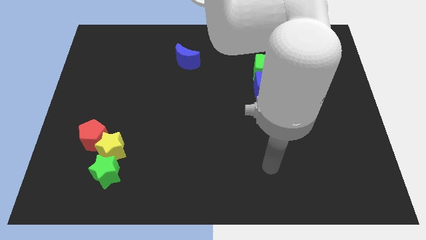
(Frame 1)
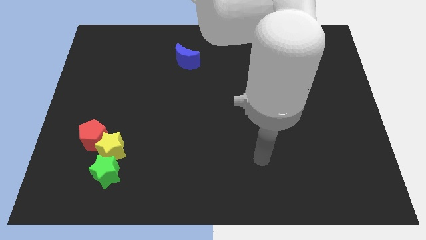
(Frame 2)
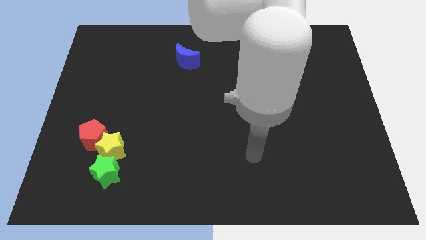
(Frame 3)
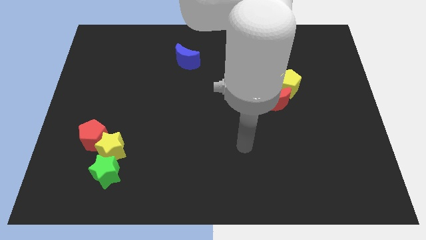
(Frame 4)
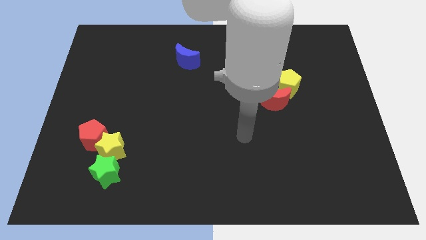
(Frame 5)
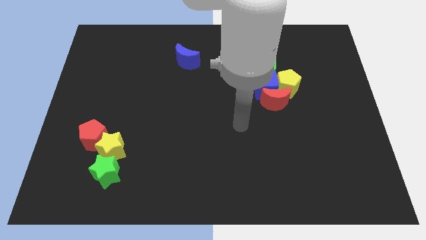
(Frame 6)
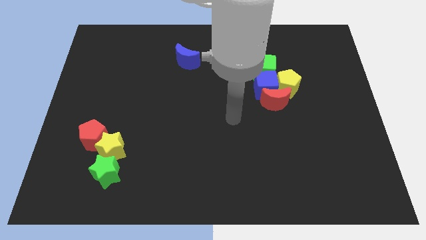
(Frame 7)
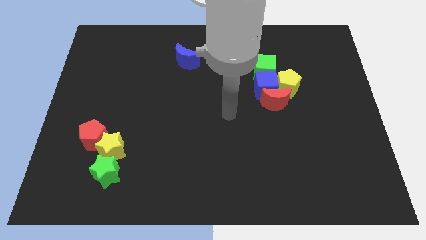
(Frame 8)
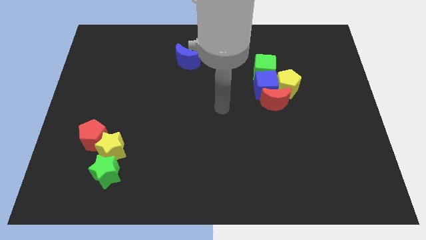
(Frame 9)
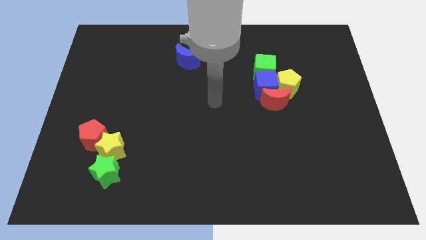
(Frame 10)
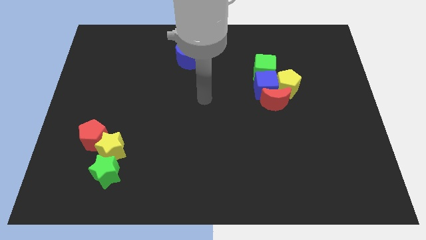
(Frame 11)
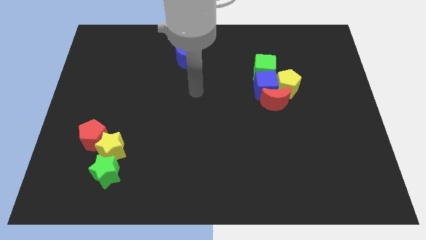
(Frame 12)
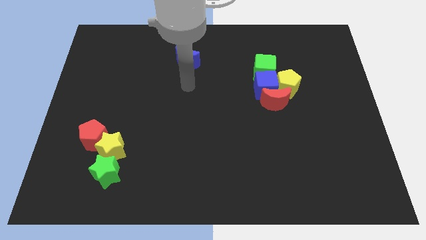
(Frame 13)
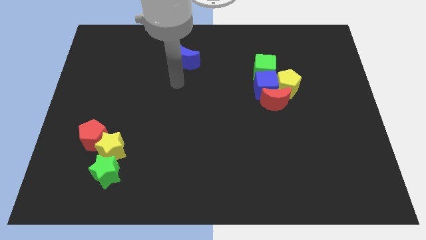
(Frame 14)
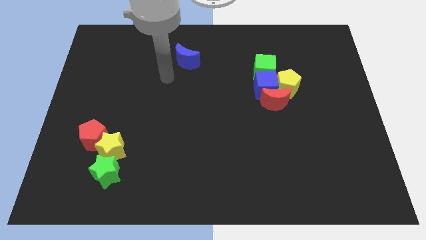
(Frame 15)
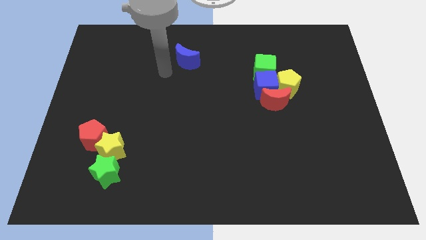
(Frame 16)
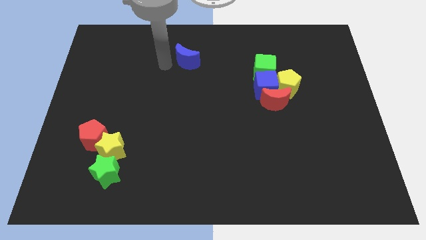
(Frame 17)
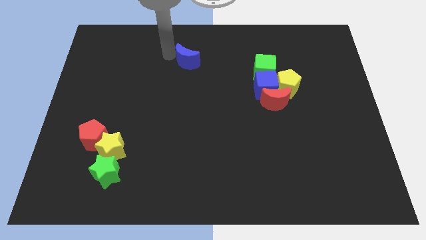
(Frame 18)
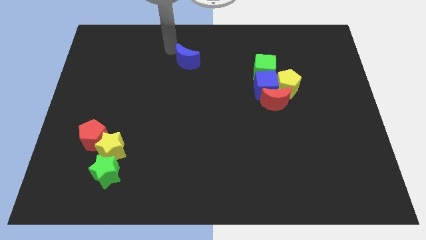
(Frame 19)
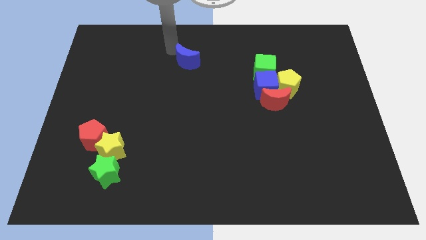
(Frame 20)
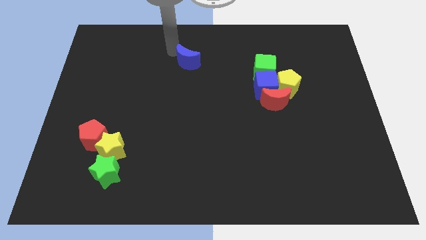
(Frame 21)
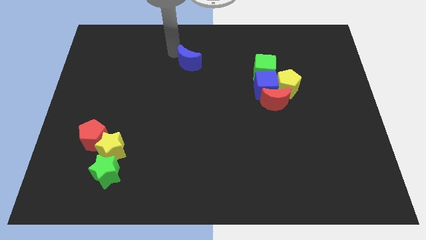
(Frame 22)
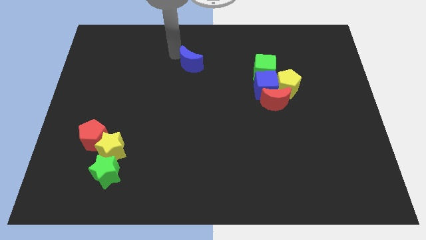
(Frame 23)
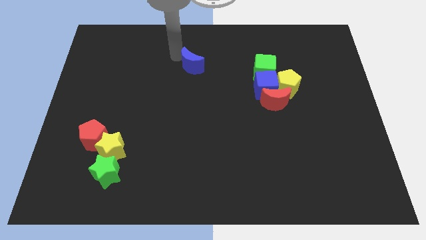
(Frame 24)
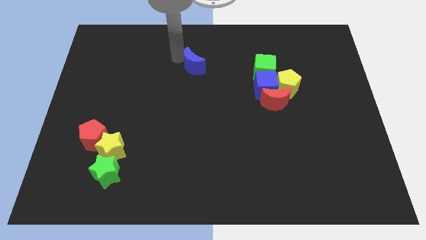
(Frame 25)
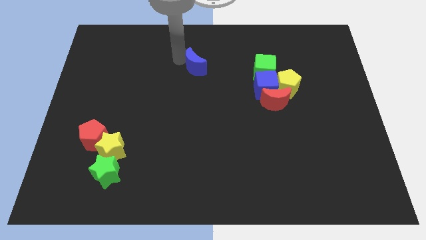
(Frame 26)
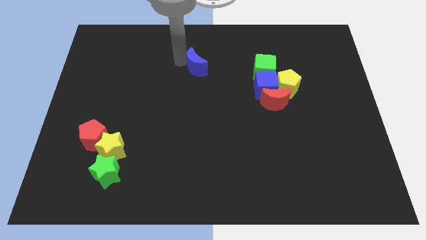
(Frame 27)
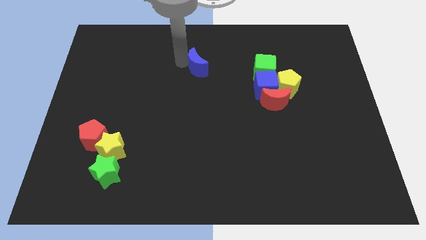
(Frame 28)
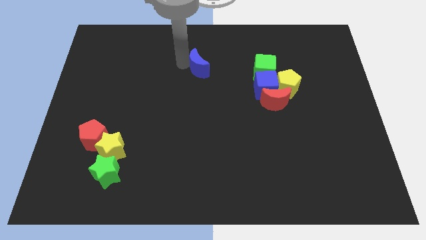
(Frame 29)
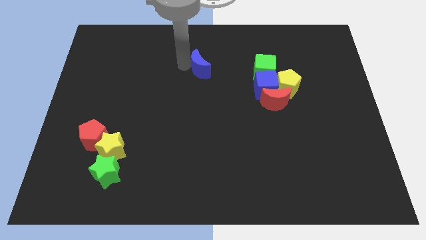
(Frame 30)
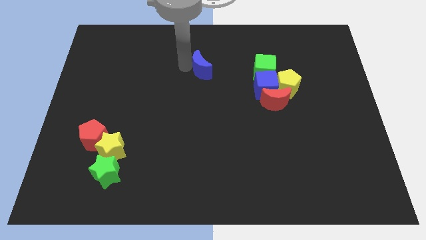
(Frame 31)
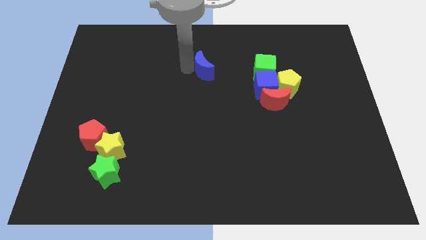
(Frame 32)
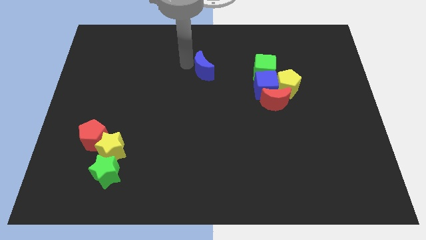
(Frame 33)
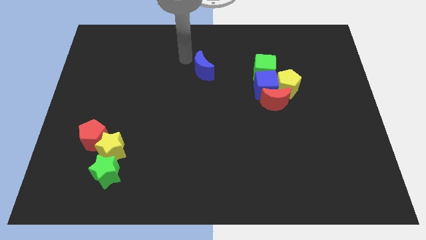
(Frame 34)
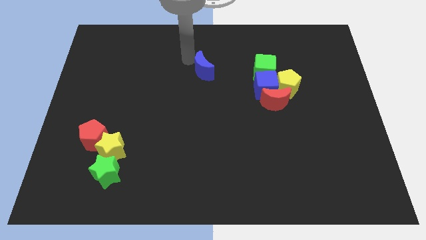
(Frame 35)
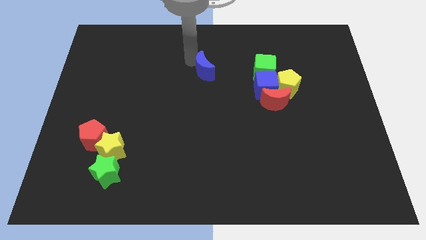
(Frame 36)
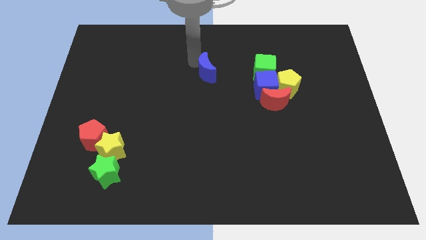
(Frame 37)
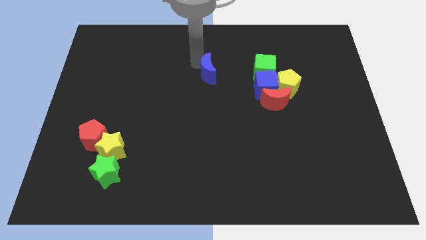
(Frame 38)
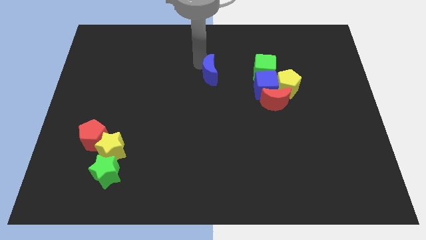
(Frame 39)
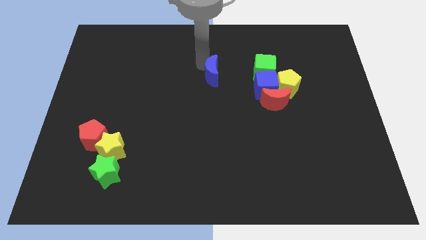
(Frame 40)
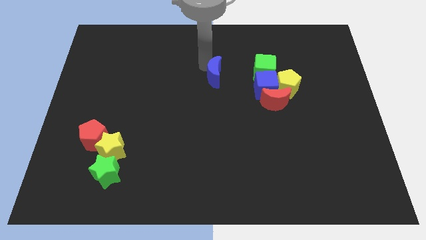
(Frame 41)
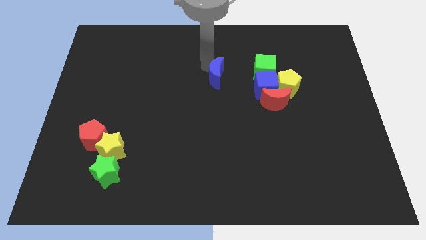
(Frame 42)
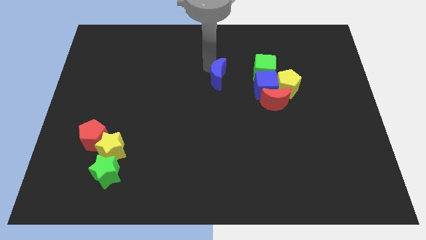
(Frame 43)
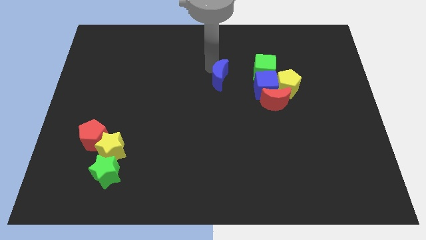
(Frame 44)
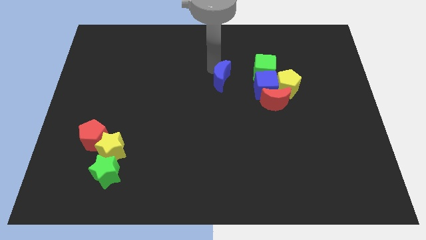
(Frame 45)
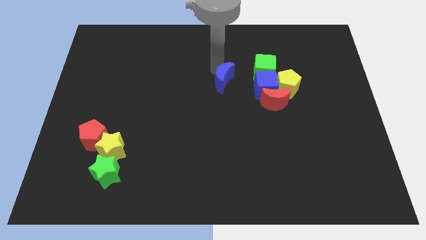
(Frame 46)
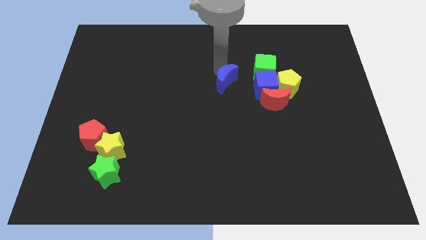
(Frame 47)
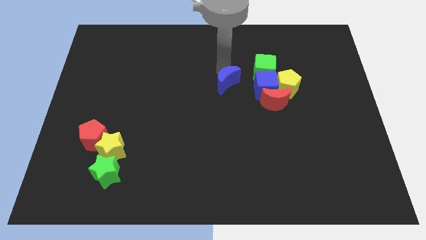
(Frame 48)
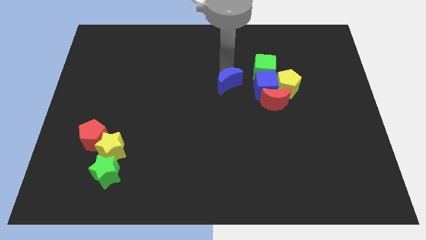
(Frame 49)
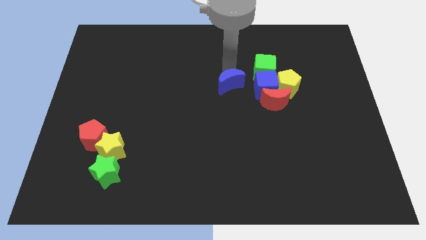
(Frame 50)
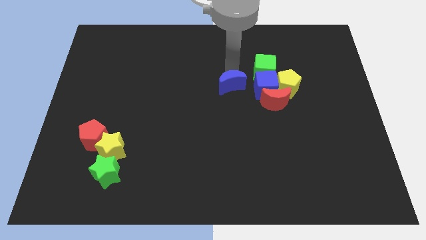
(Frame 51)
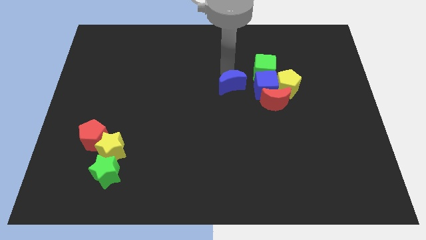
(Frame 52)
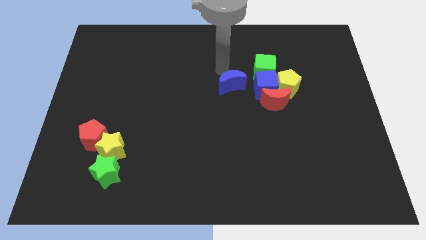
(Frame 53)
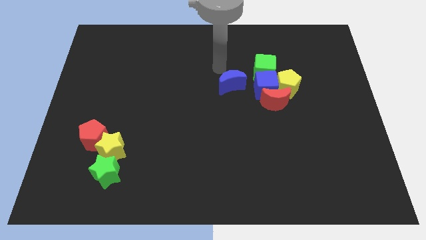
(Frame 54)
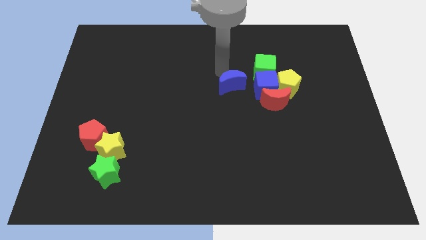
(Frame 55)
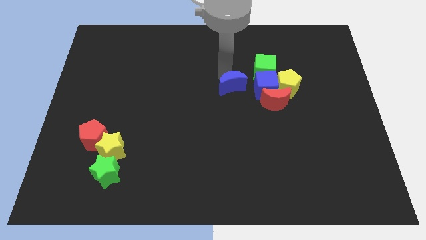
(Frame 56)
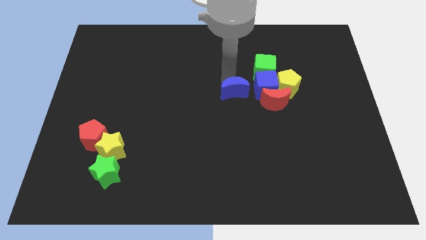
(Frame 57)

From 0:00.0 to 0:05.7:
slide the blue moon to the bottom left of the blue cube
